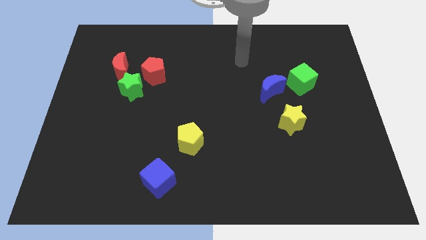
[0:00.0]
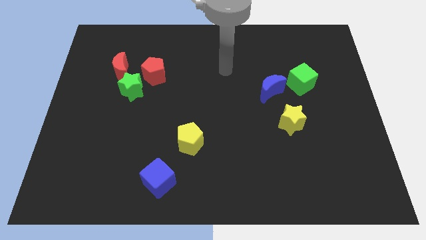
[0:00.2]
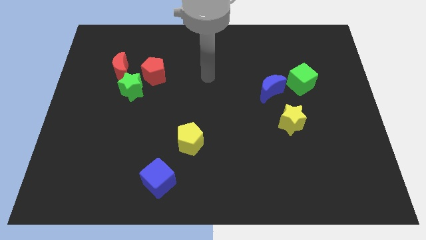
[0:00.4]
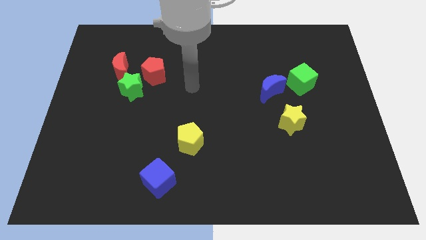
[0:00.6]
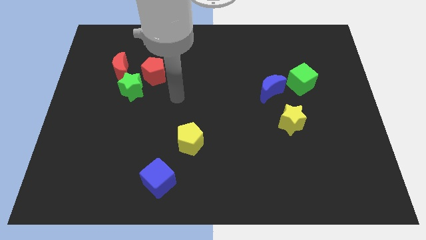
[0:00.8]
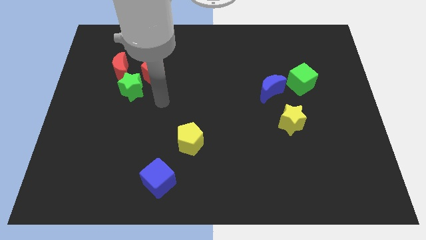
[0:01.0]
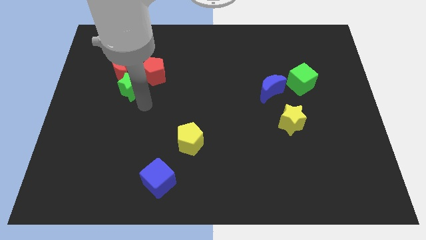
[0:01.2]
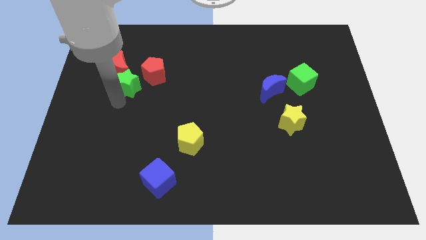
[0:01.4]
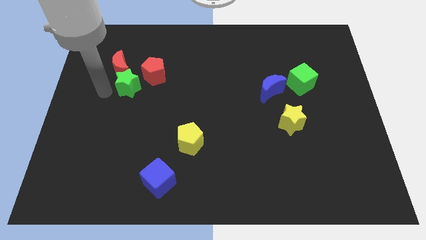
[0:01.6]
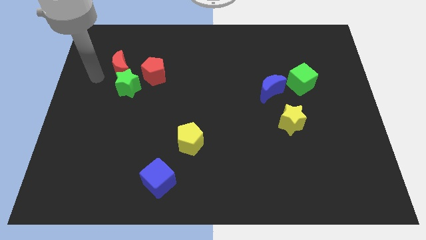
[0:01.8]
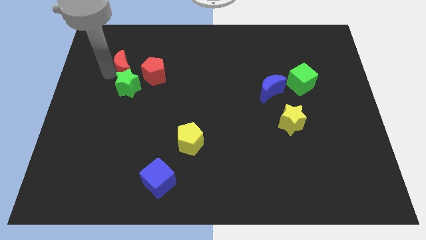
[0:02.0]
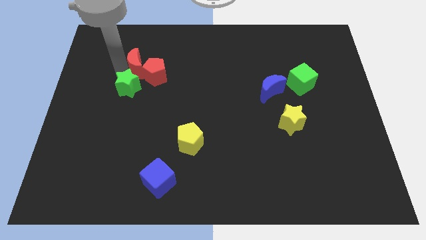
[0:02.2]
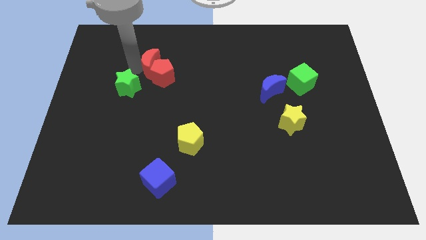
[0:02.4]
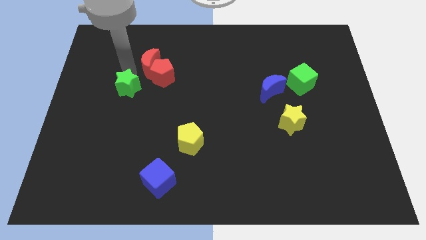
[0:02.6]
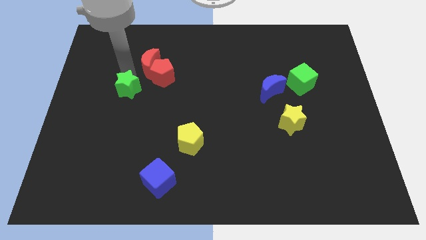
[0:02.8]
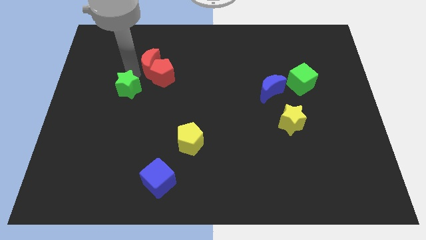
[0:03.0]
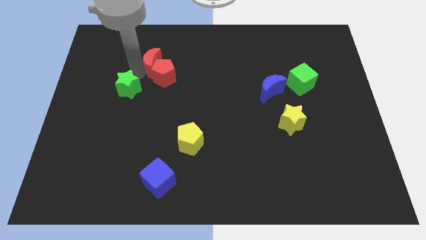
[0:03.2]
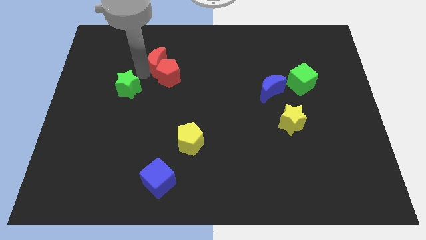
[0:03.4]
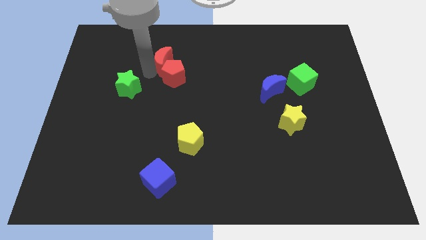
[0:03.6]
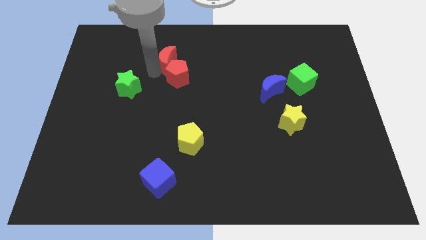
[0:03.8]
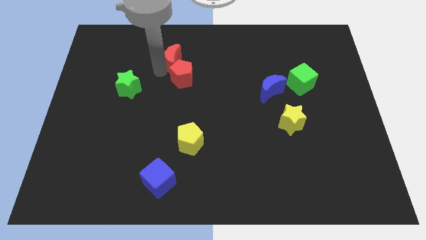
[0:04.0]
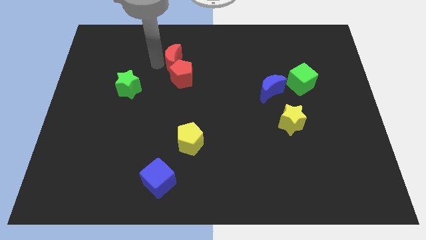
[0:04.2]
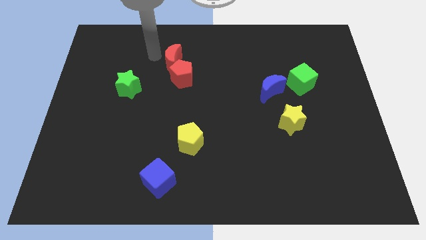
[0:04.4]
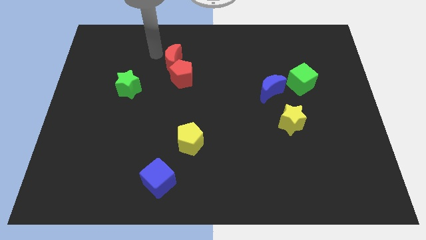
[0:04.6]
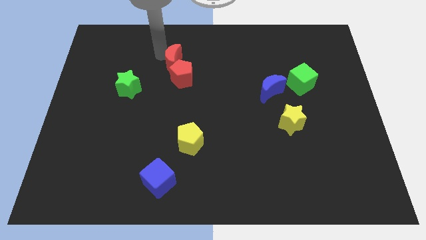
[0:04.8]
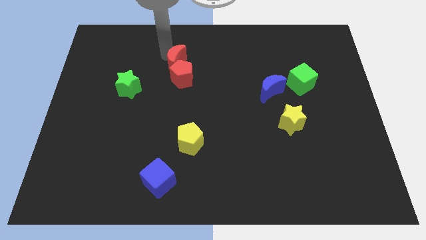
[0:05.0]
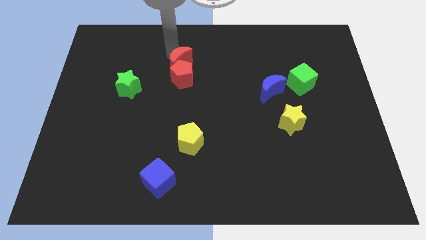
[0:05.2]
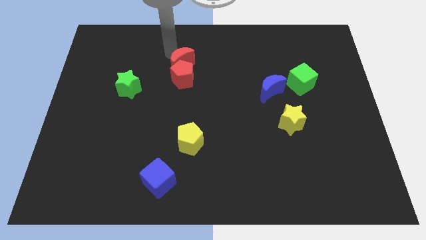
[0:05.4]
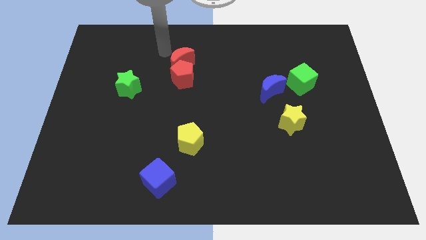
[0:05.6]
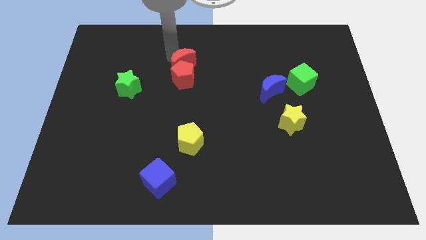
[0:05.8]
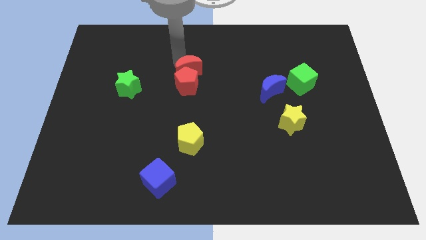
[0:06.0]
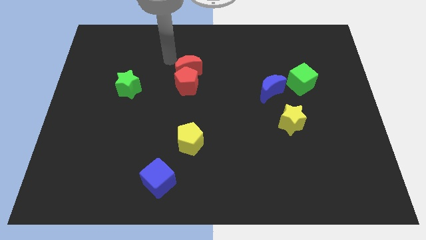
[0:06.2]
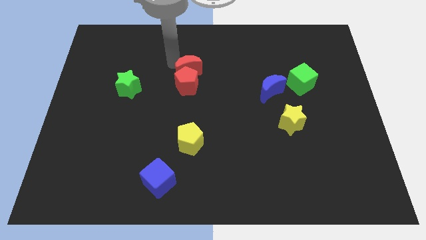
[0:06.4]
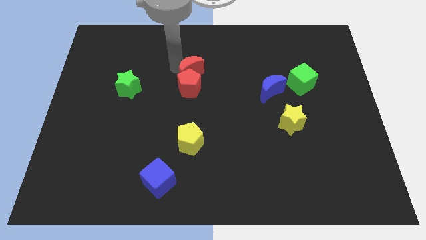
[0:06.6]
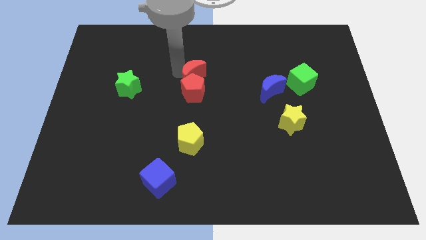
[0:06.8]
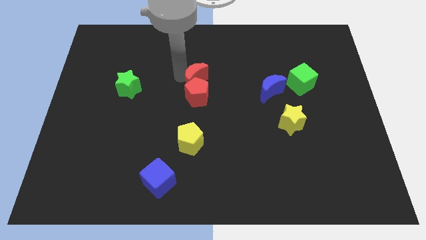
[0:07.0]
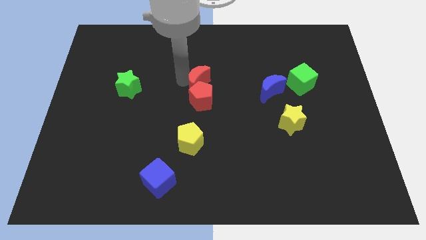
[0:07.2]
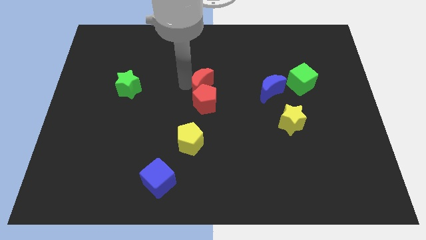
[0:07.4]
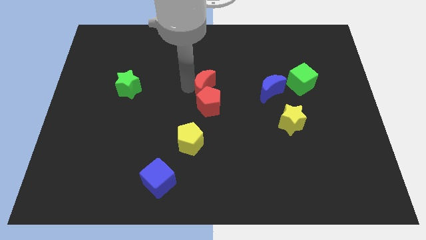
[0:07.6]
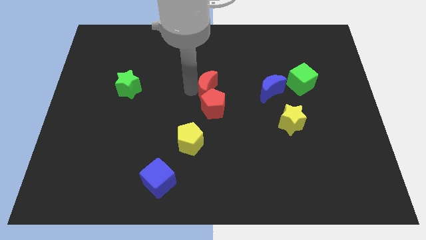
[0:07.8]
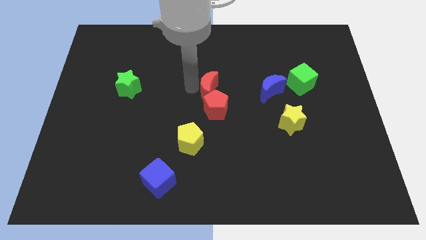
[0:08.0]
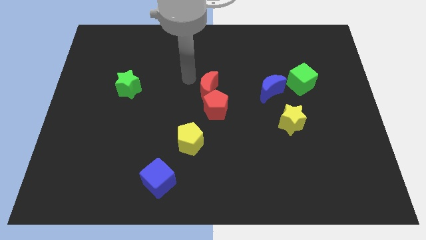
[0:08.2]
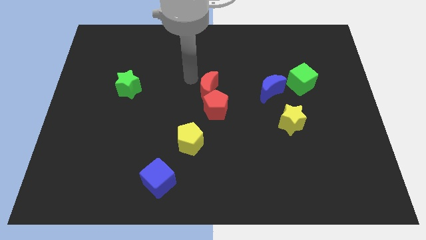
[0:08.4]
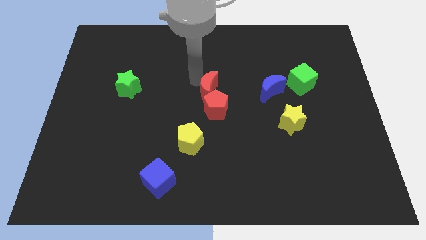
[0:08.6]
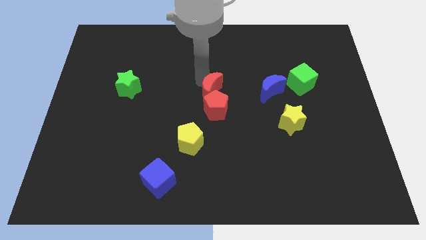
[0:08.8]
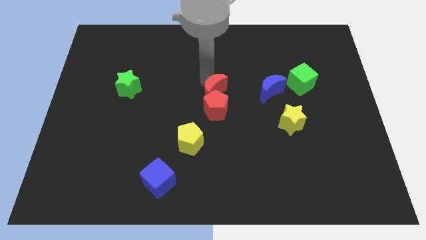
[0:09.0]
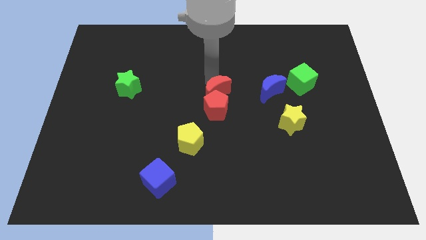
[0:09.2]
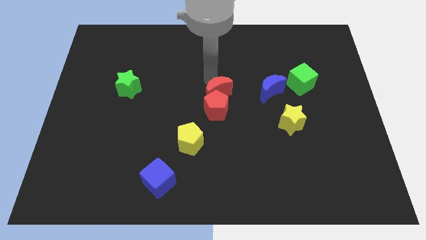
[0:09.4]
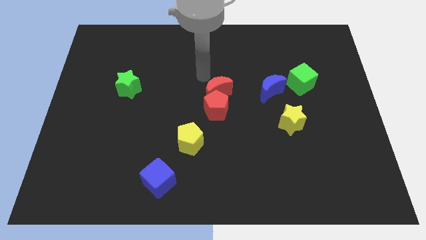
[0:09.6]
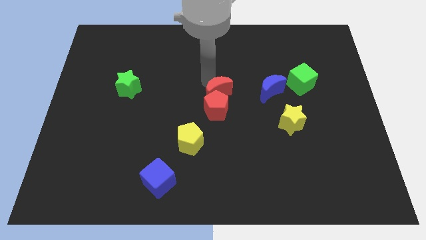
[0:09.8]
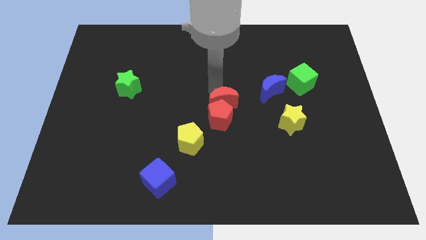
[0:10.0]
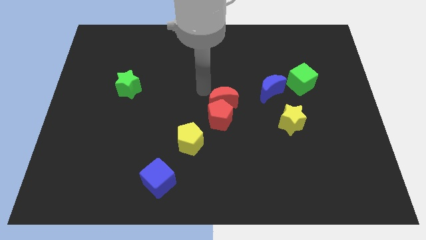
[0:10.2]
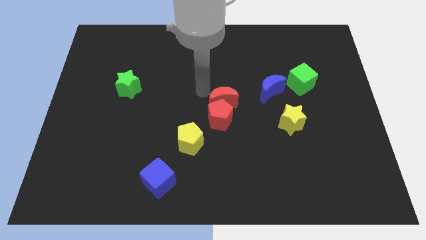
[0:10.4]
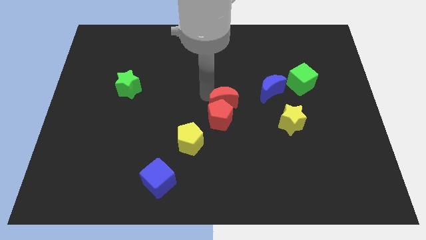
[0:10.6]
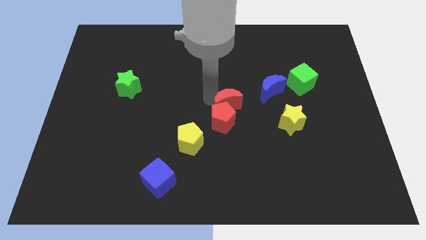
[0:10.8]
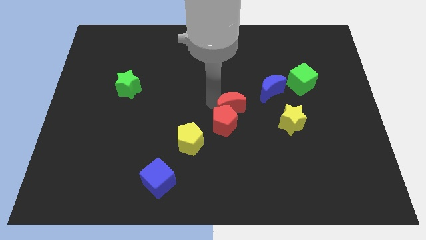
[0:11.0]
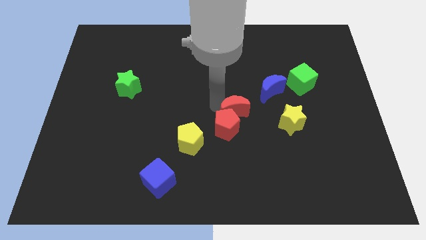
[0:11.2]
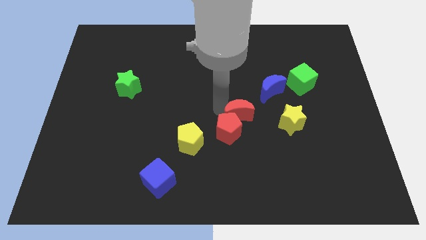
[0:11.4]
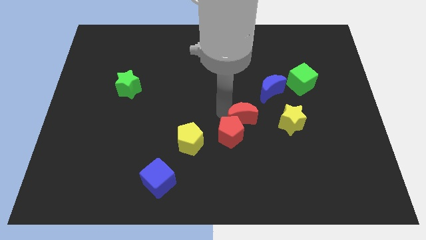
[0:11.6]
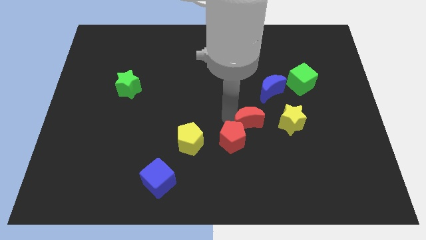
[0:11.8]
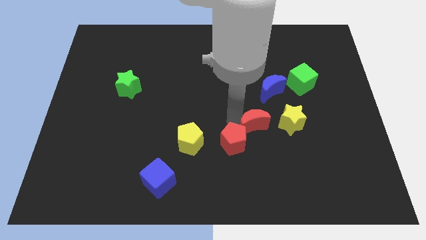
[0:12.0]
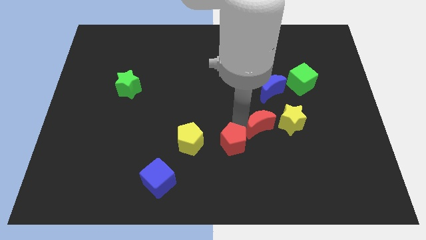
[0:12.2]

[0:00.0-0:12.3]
move the red moon to the bottom left of the yellow star
